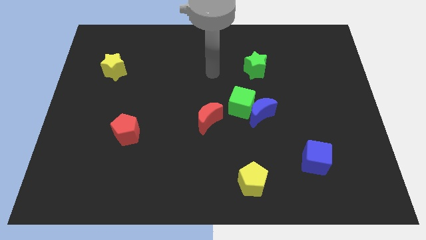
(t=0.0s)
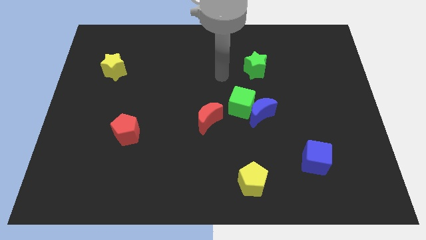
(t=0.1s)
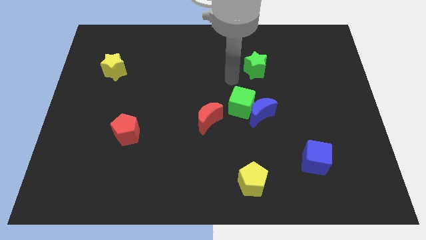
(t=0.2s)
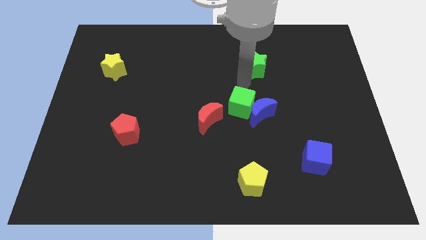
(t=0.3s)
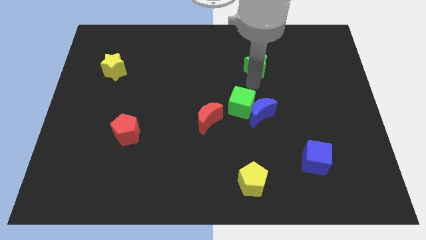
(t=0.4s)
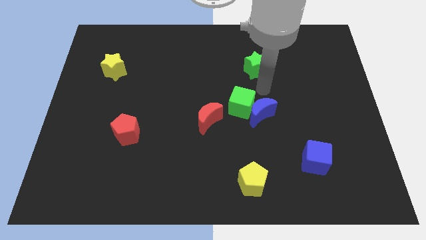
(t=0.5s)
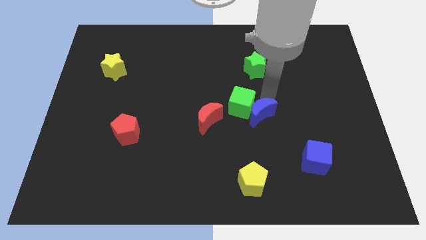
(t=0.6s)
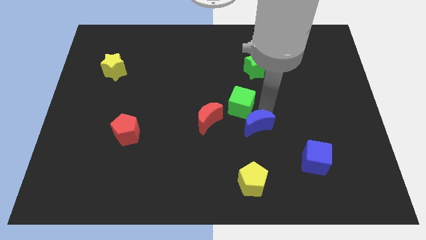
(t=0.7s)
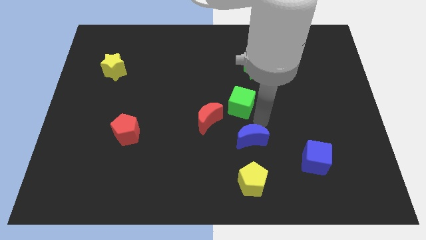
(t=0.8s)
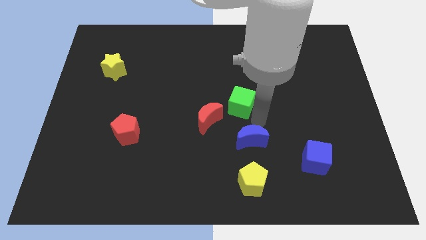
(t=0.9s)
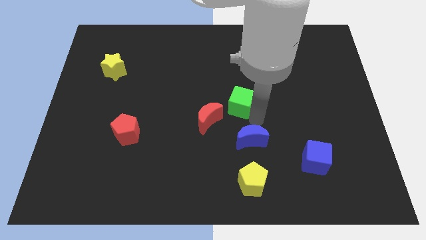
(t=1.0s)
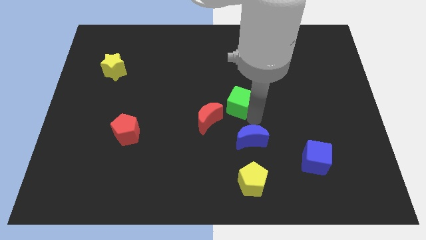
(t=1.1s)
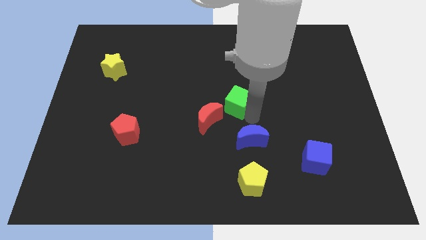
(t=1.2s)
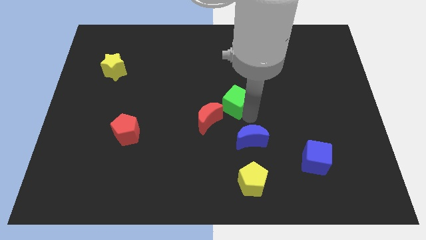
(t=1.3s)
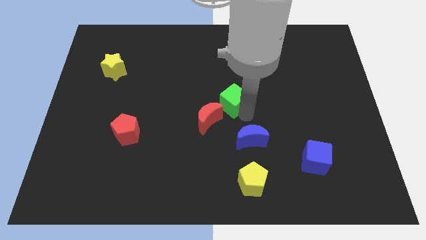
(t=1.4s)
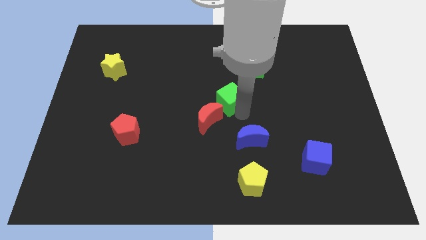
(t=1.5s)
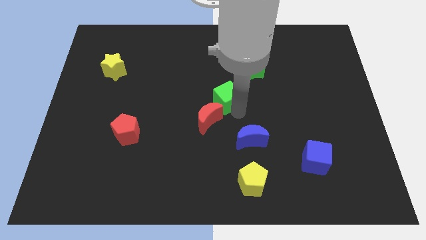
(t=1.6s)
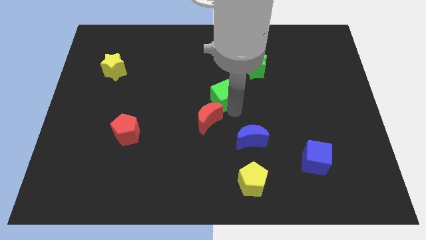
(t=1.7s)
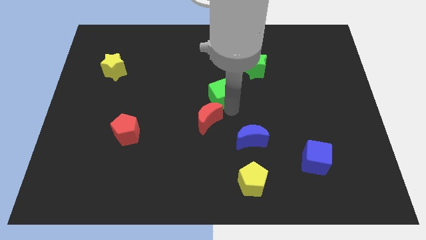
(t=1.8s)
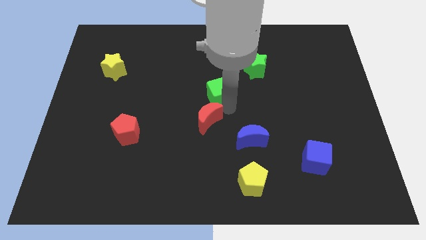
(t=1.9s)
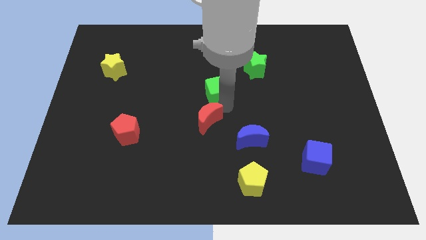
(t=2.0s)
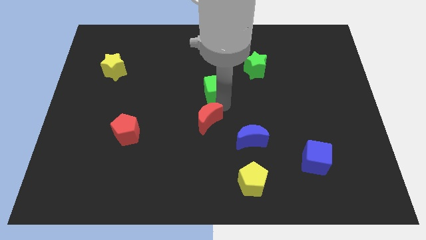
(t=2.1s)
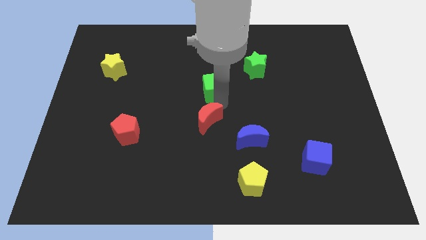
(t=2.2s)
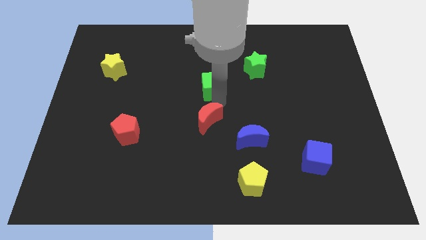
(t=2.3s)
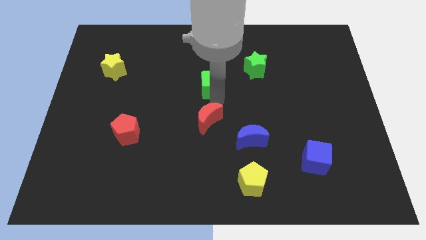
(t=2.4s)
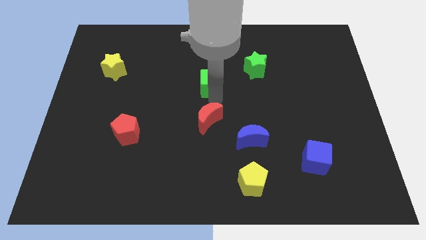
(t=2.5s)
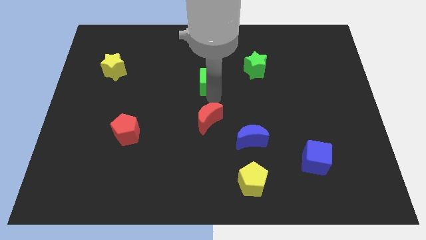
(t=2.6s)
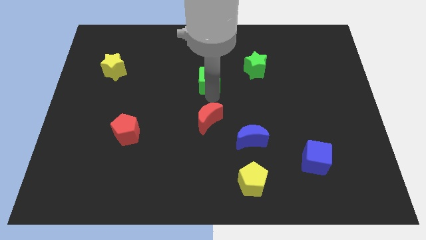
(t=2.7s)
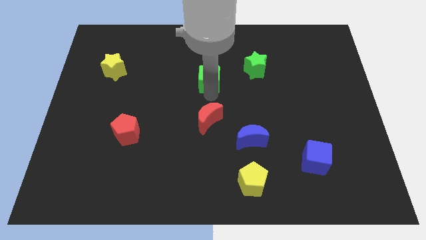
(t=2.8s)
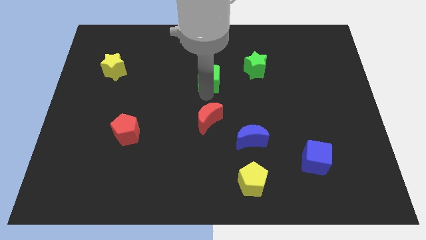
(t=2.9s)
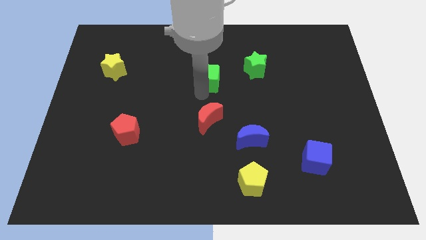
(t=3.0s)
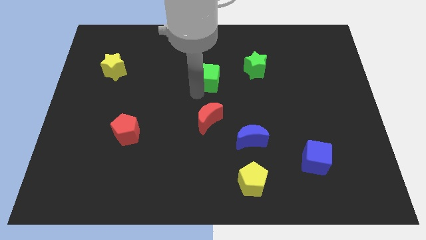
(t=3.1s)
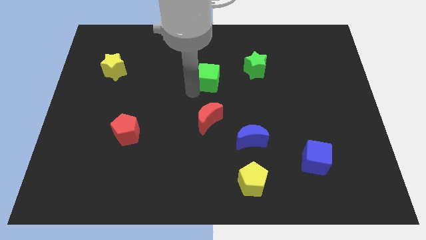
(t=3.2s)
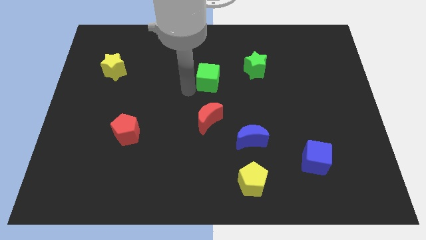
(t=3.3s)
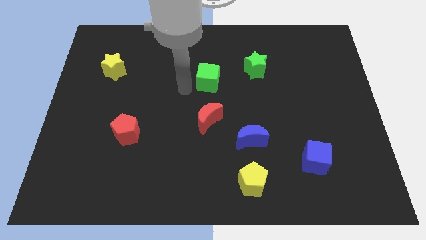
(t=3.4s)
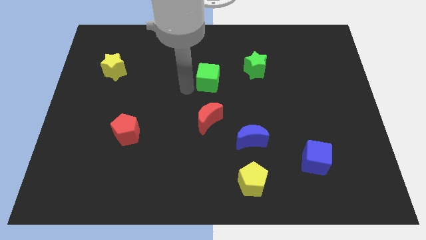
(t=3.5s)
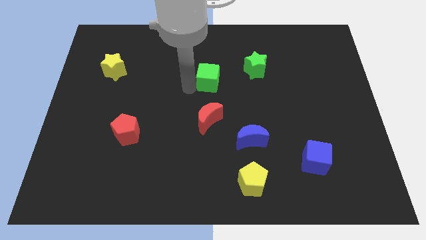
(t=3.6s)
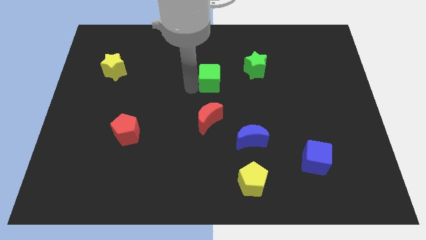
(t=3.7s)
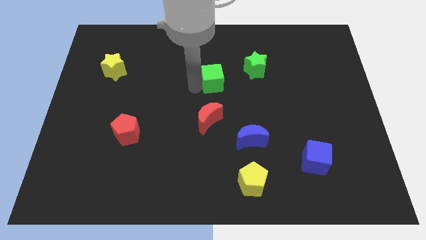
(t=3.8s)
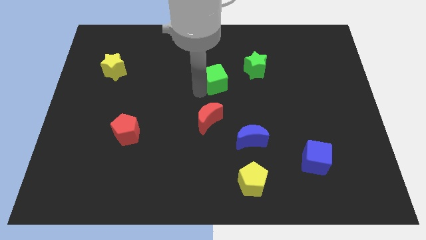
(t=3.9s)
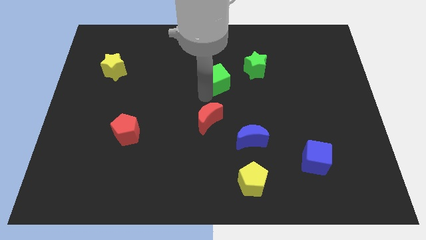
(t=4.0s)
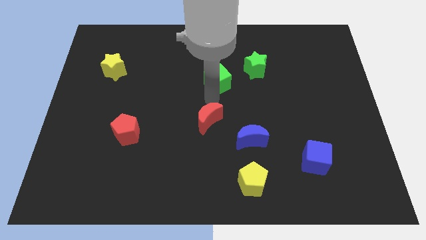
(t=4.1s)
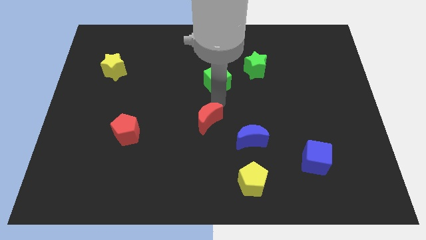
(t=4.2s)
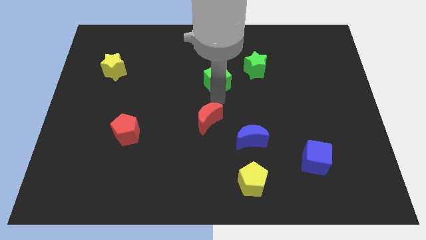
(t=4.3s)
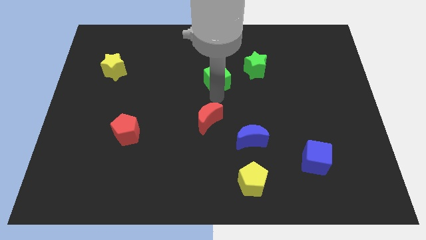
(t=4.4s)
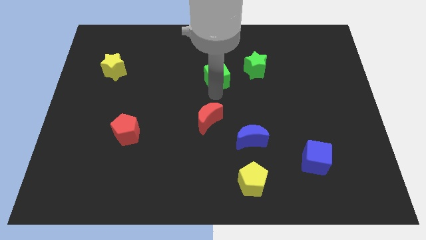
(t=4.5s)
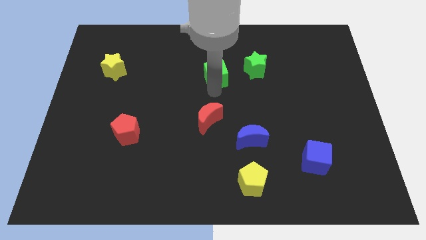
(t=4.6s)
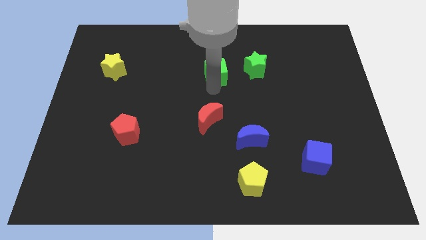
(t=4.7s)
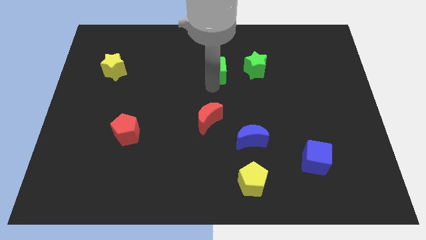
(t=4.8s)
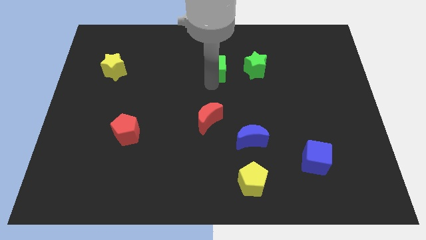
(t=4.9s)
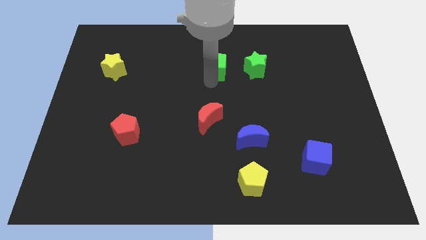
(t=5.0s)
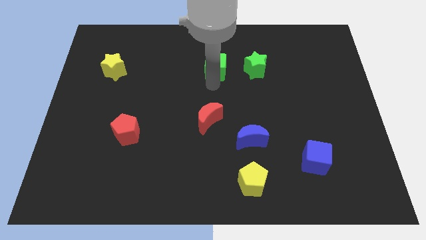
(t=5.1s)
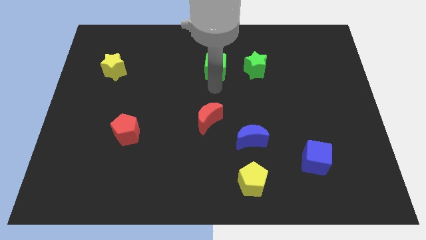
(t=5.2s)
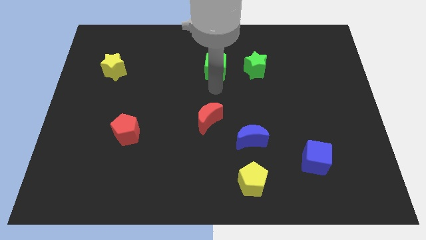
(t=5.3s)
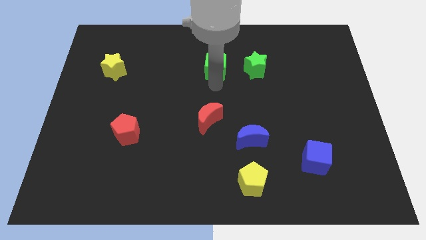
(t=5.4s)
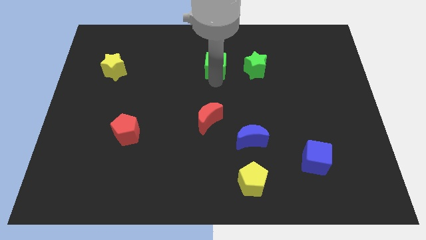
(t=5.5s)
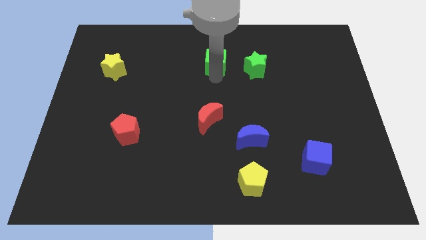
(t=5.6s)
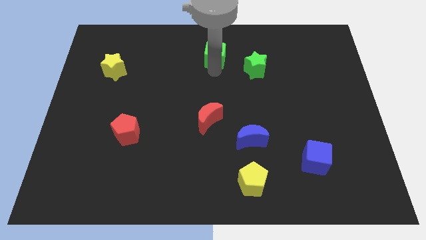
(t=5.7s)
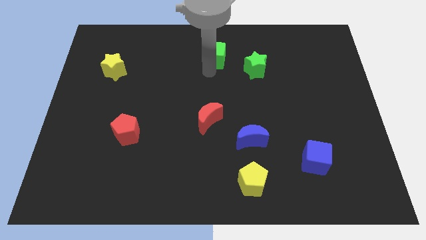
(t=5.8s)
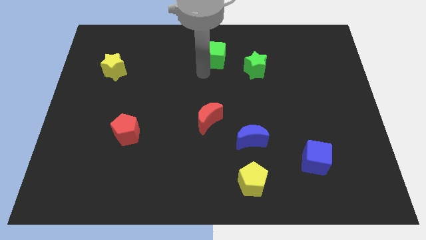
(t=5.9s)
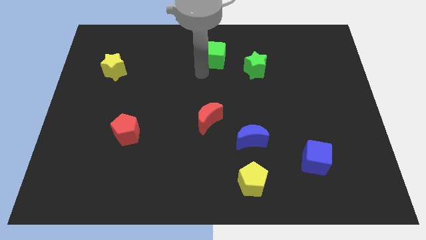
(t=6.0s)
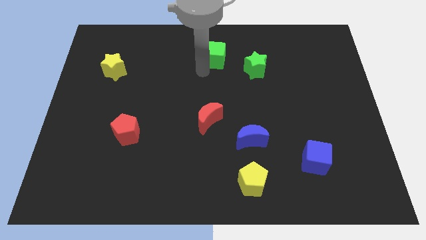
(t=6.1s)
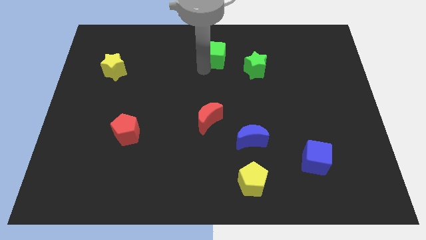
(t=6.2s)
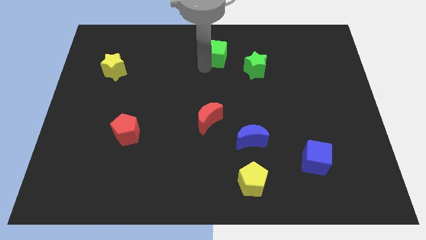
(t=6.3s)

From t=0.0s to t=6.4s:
slide the green cube to the towards your base

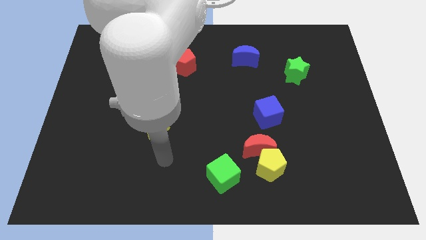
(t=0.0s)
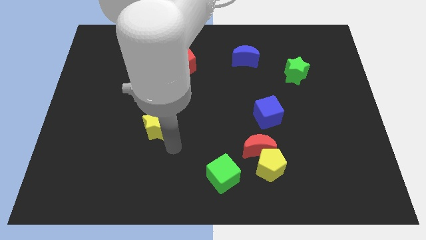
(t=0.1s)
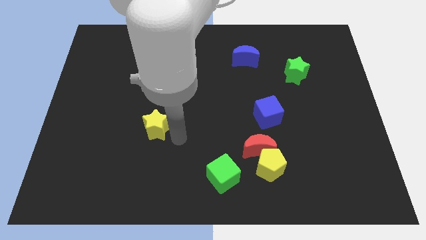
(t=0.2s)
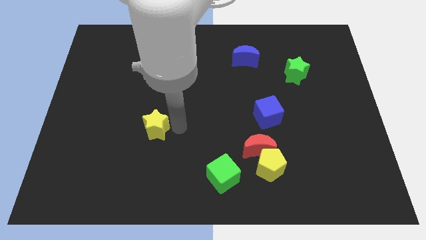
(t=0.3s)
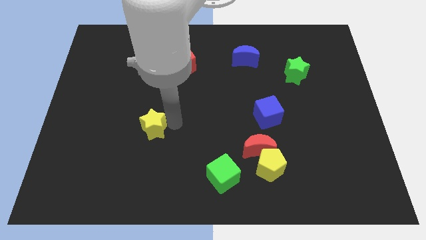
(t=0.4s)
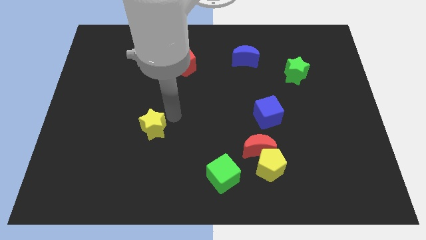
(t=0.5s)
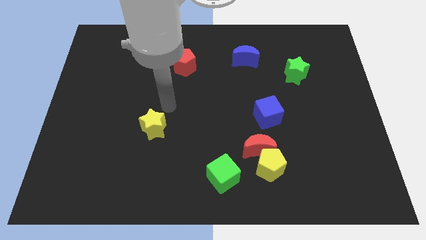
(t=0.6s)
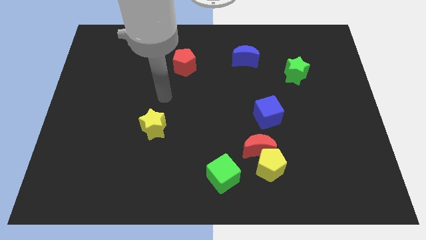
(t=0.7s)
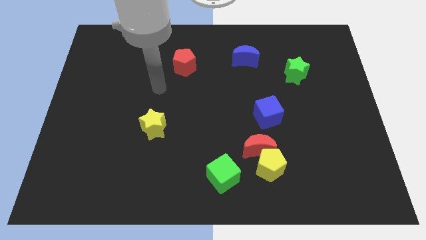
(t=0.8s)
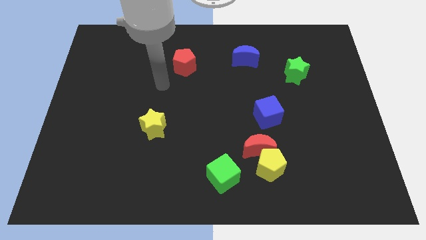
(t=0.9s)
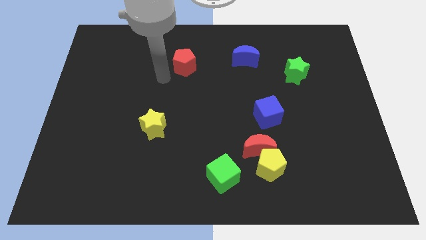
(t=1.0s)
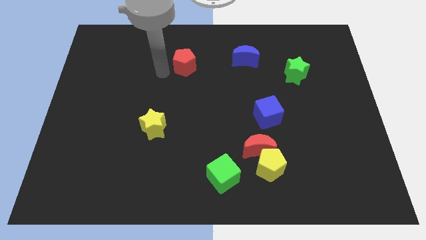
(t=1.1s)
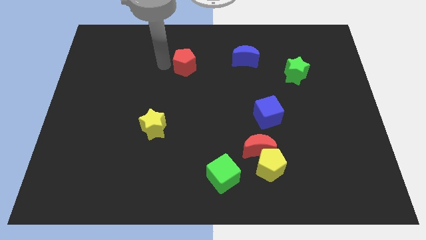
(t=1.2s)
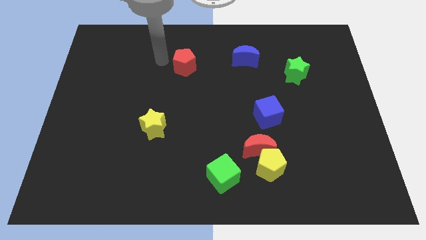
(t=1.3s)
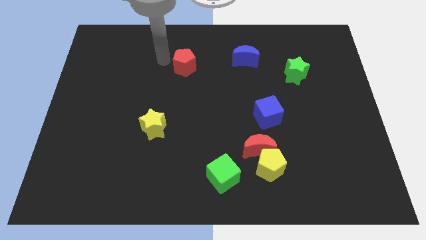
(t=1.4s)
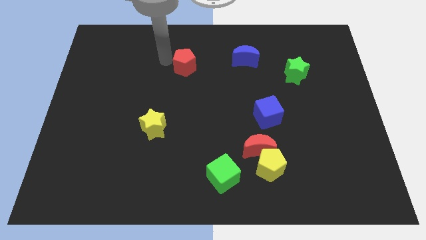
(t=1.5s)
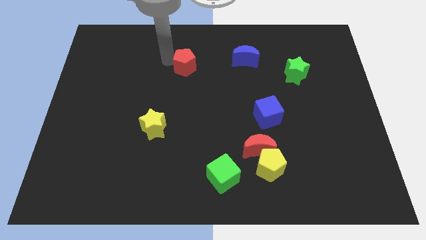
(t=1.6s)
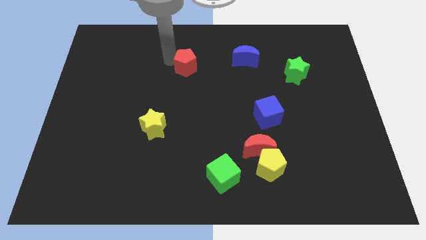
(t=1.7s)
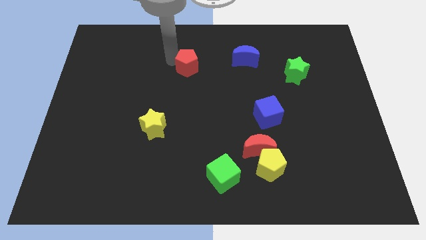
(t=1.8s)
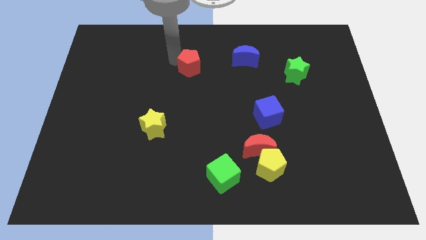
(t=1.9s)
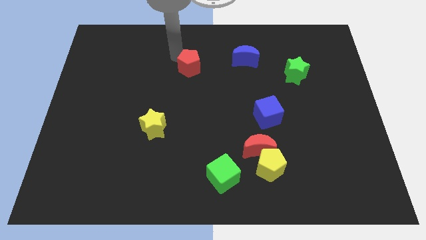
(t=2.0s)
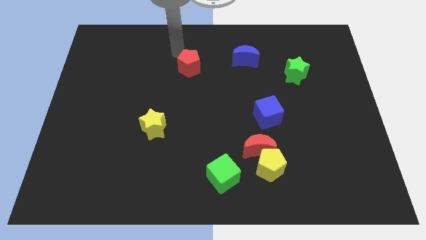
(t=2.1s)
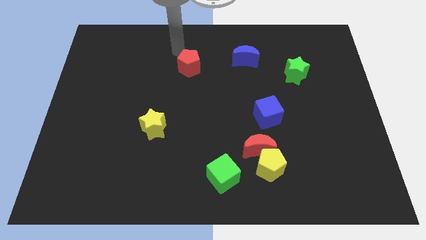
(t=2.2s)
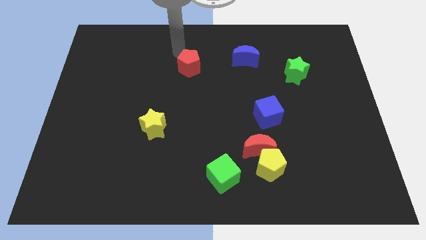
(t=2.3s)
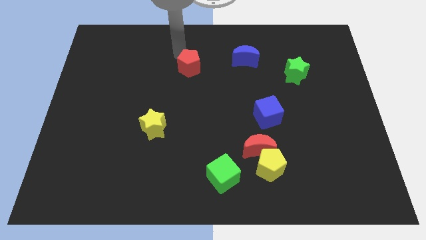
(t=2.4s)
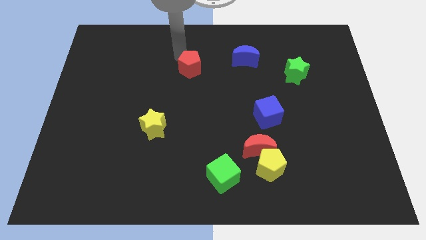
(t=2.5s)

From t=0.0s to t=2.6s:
move the red pentagon to the middle
